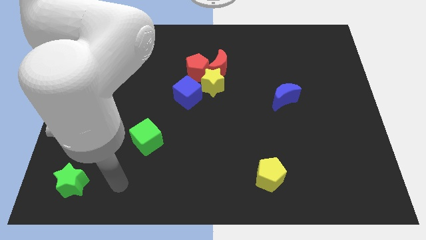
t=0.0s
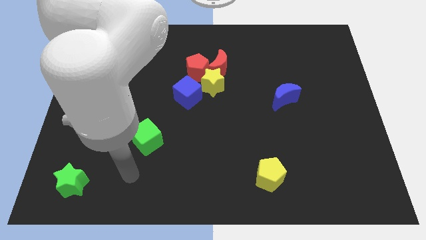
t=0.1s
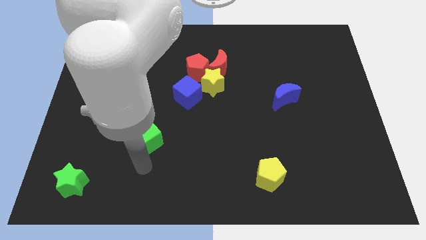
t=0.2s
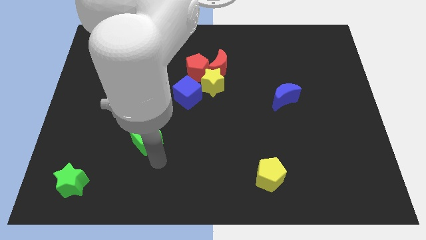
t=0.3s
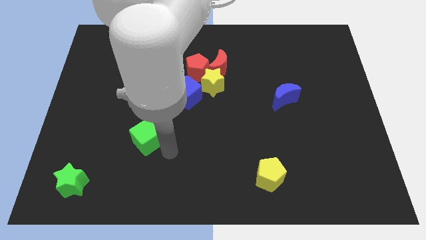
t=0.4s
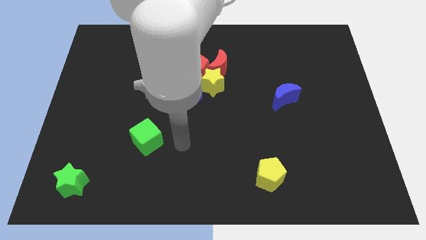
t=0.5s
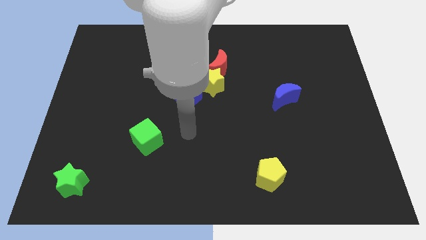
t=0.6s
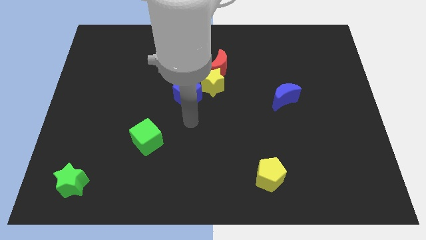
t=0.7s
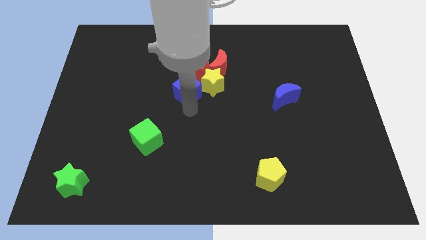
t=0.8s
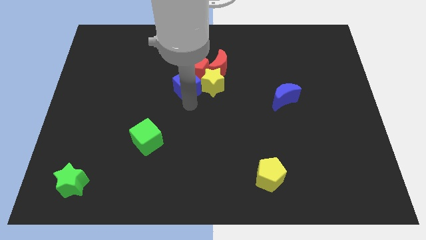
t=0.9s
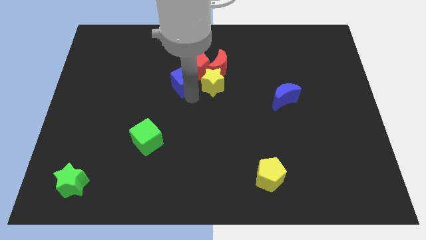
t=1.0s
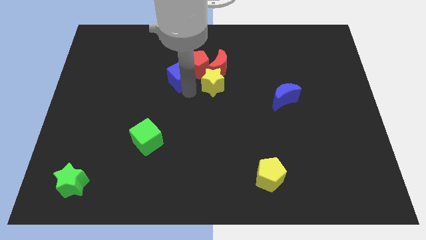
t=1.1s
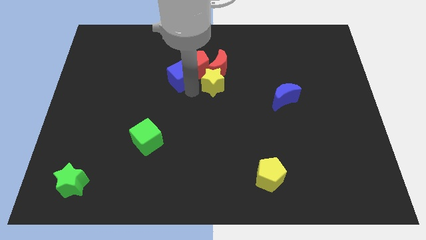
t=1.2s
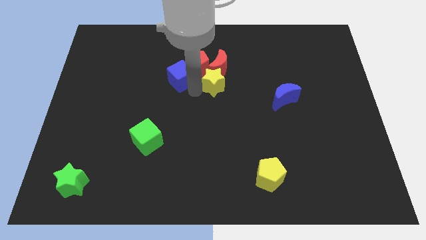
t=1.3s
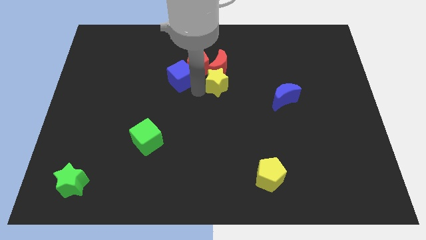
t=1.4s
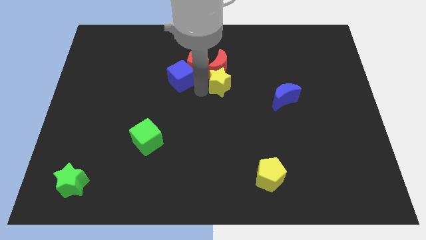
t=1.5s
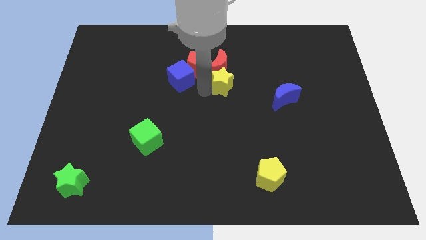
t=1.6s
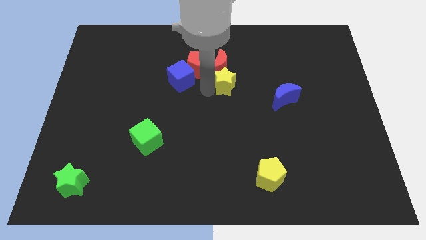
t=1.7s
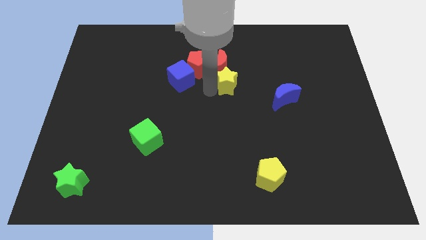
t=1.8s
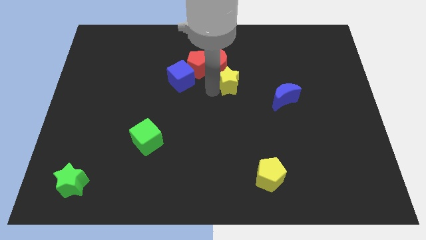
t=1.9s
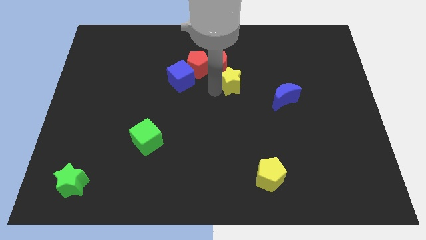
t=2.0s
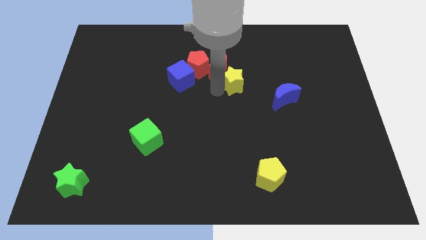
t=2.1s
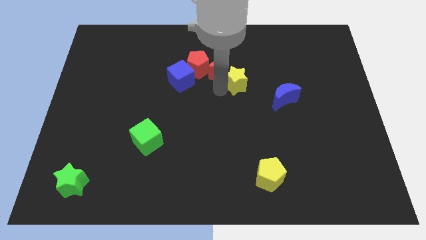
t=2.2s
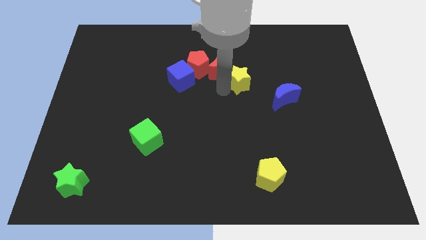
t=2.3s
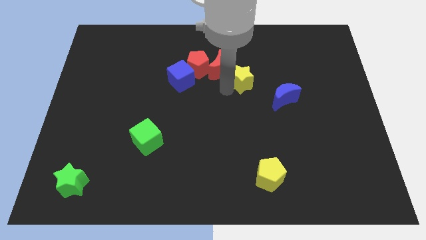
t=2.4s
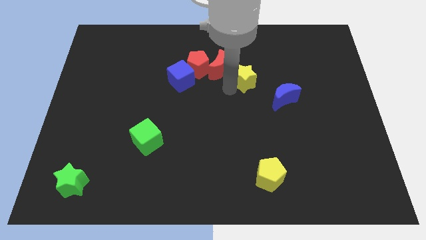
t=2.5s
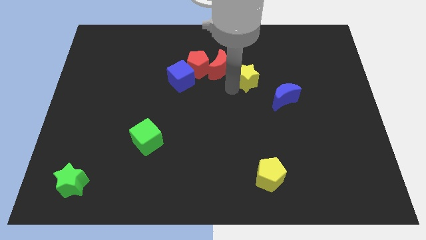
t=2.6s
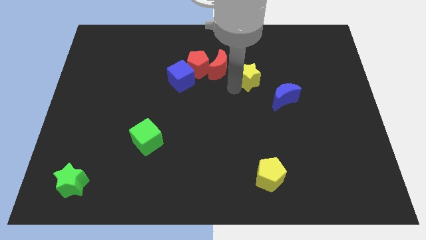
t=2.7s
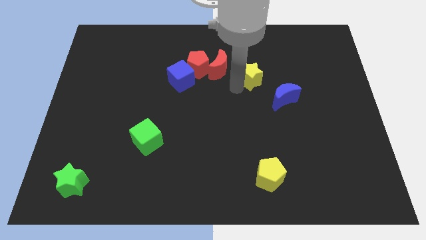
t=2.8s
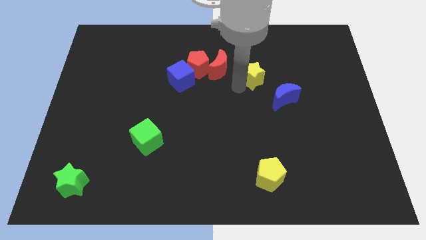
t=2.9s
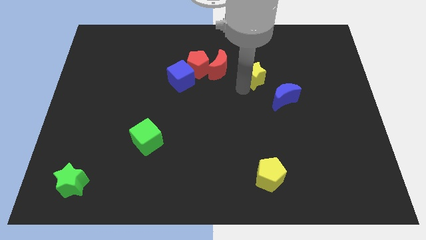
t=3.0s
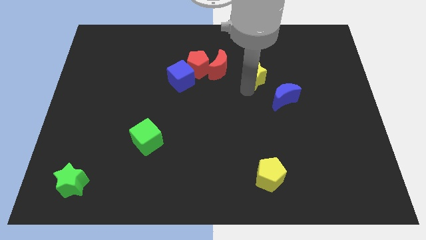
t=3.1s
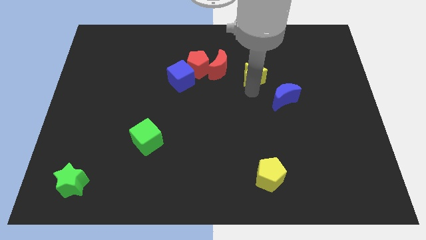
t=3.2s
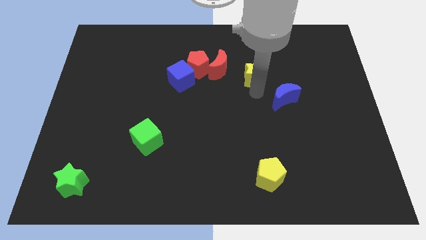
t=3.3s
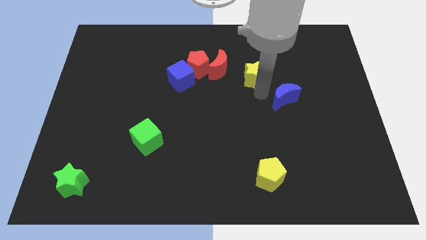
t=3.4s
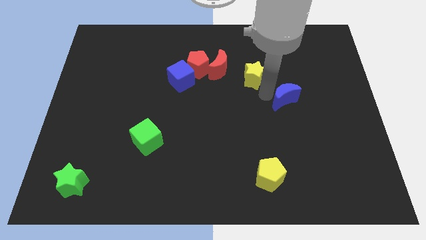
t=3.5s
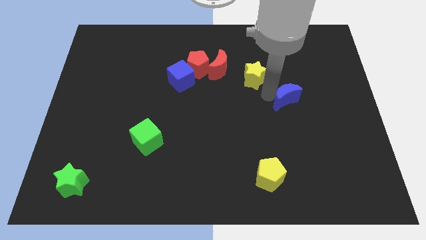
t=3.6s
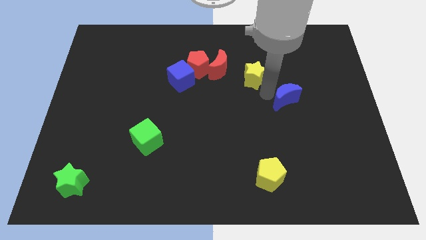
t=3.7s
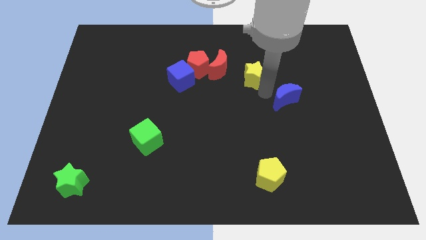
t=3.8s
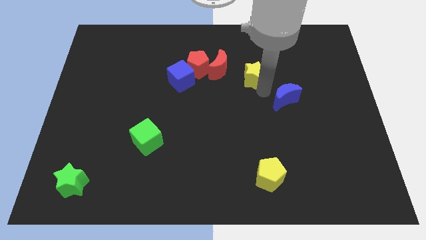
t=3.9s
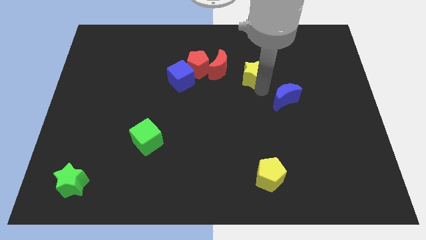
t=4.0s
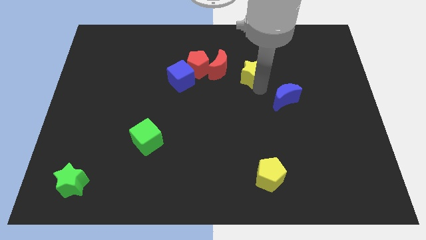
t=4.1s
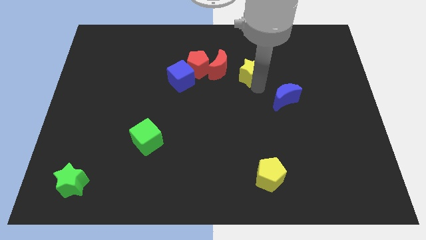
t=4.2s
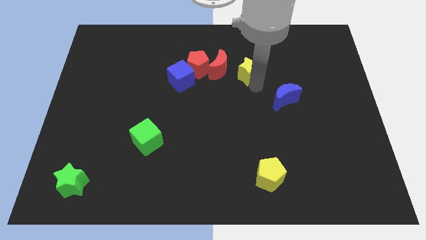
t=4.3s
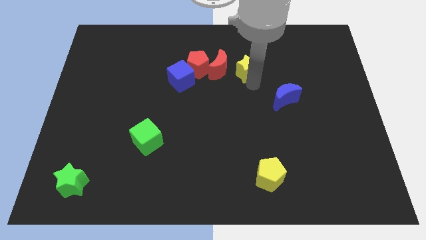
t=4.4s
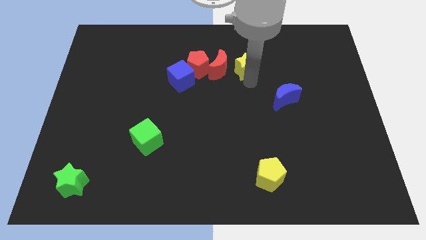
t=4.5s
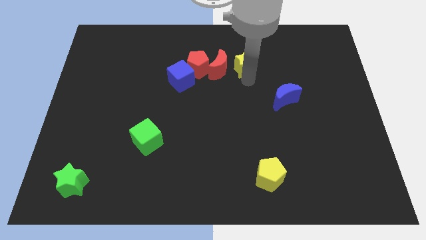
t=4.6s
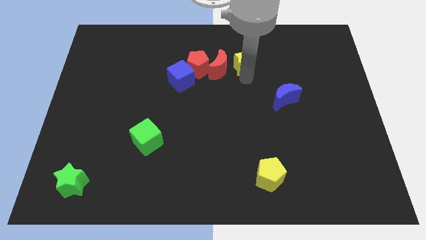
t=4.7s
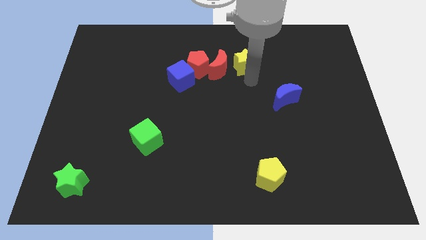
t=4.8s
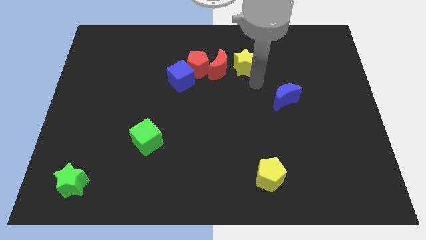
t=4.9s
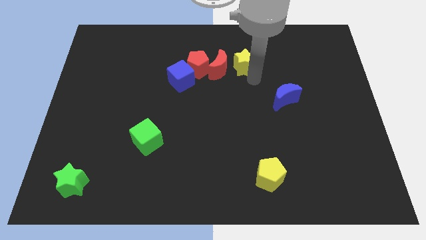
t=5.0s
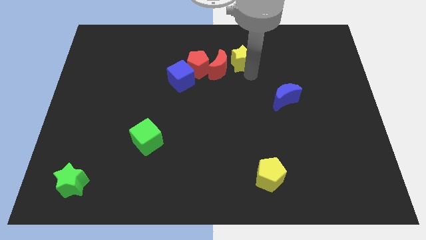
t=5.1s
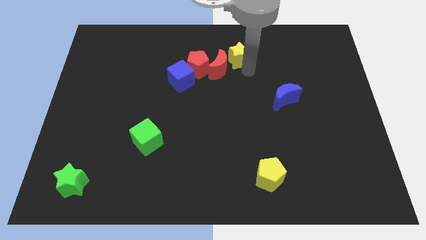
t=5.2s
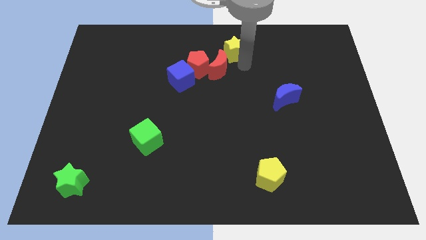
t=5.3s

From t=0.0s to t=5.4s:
slide the yellow star to the towards your base

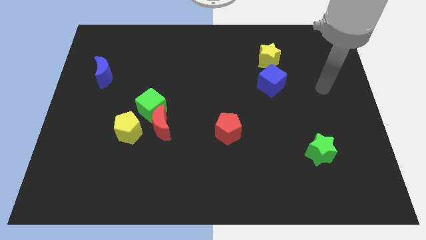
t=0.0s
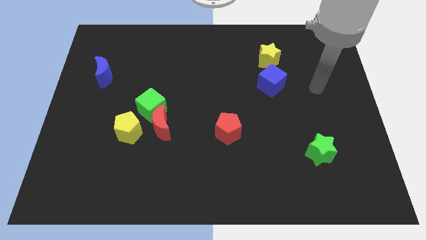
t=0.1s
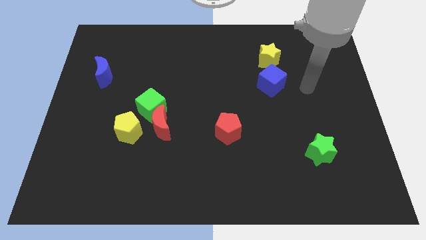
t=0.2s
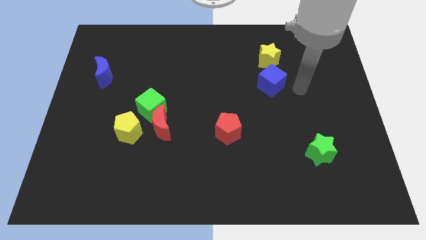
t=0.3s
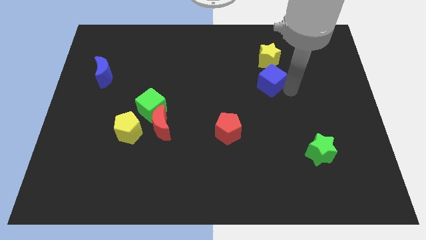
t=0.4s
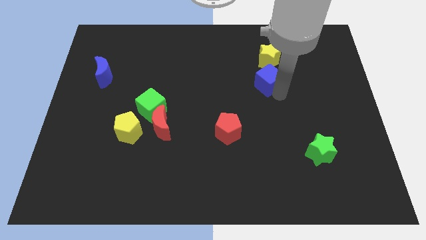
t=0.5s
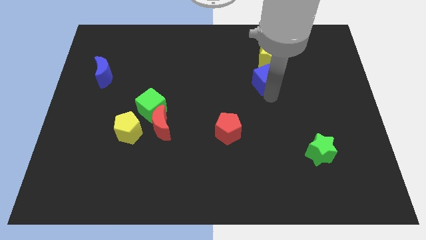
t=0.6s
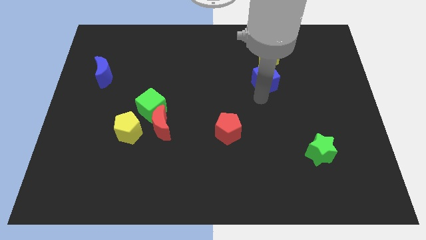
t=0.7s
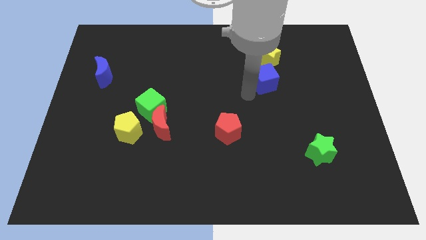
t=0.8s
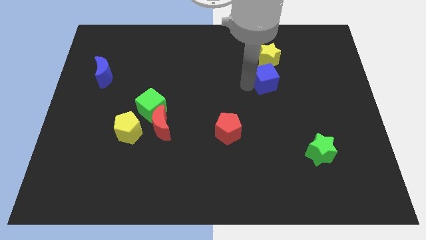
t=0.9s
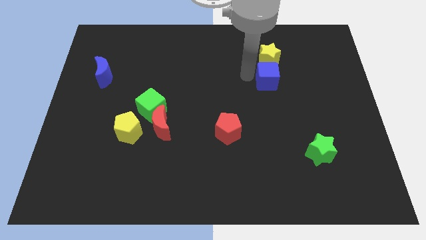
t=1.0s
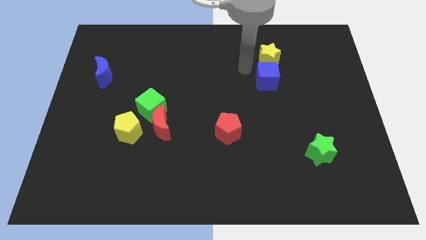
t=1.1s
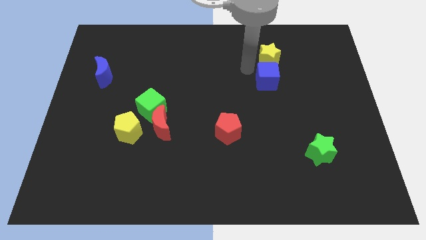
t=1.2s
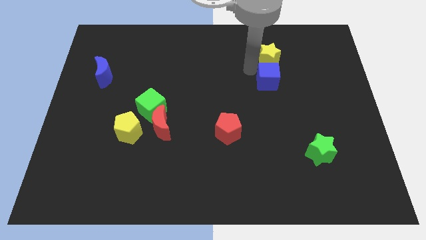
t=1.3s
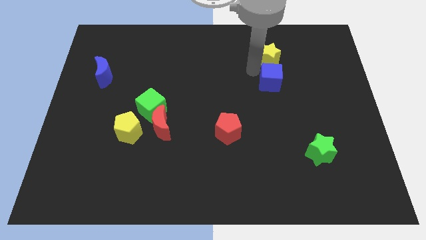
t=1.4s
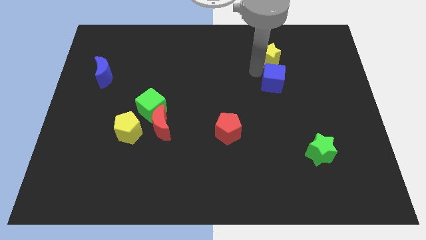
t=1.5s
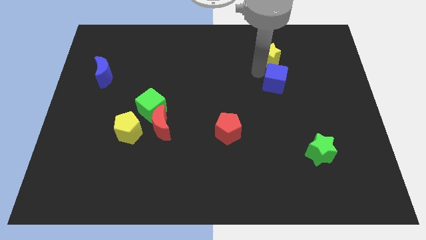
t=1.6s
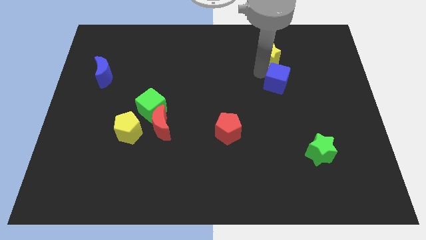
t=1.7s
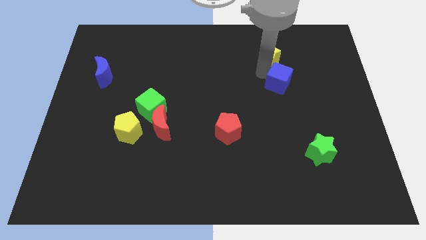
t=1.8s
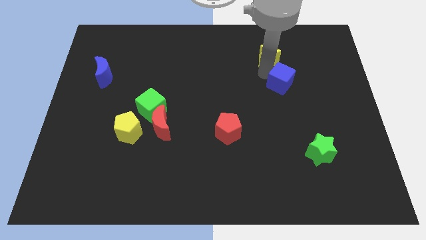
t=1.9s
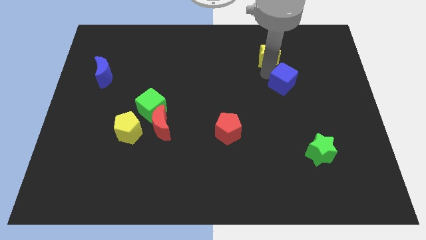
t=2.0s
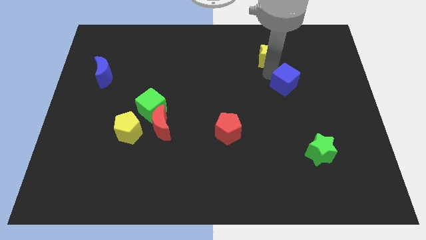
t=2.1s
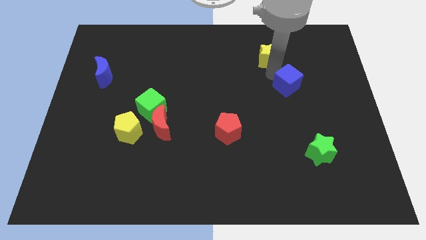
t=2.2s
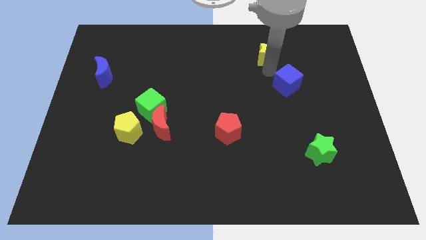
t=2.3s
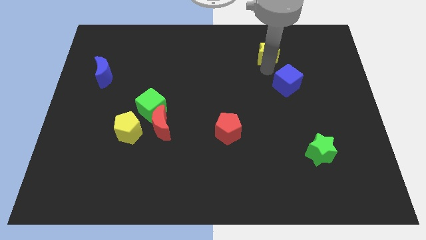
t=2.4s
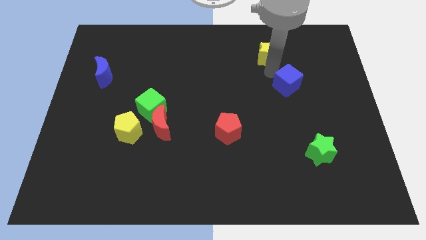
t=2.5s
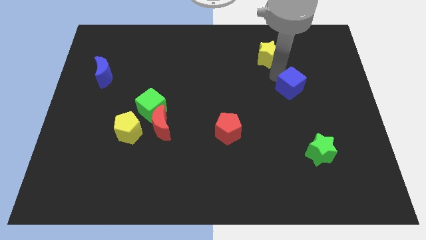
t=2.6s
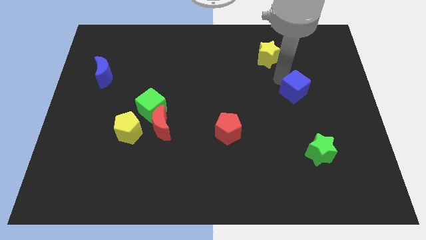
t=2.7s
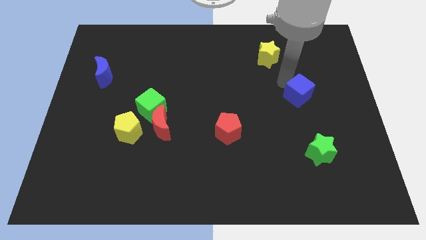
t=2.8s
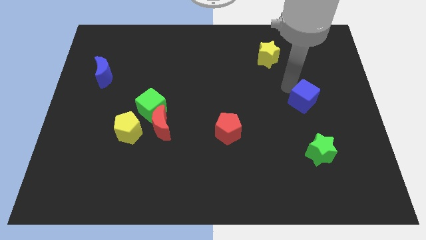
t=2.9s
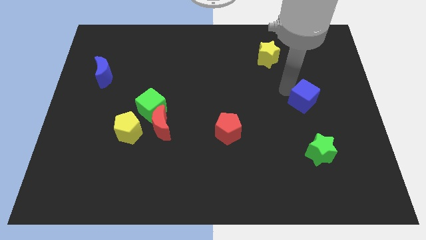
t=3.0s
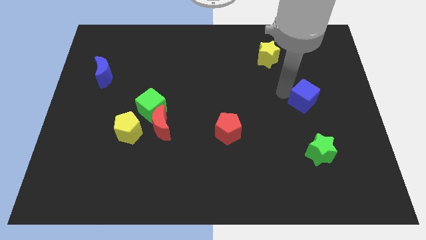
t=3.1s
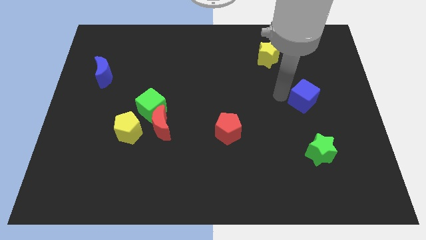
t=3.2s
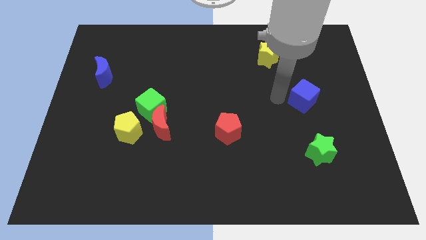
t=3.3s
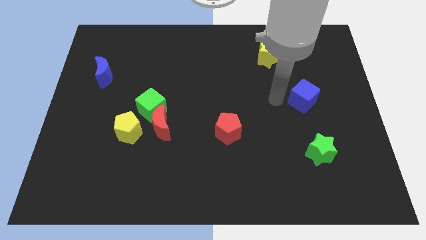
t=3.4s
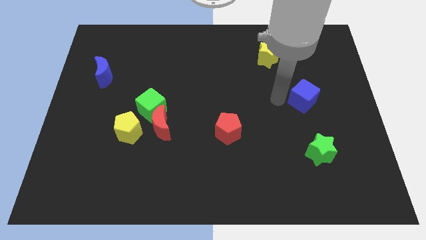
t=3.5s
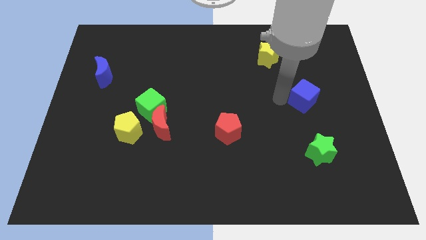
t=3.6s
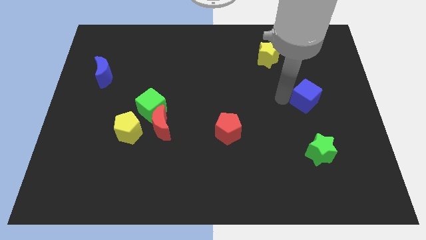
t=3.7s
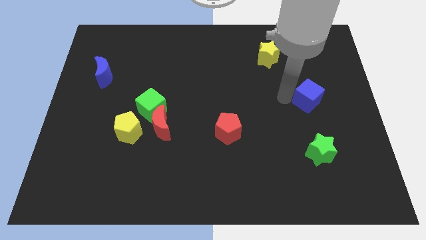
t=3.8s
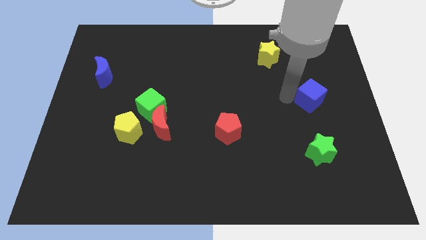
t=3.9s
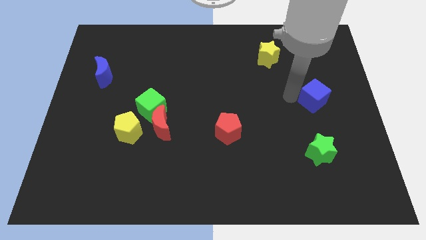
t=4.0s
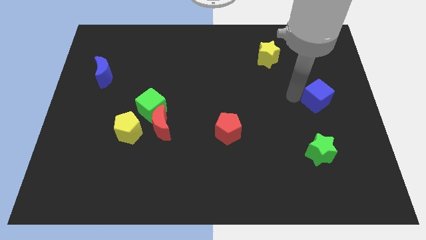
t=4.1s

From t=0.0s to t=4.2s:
slide the blue cube to the right side of the board
